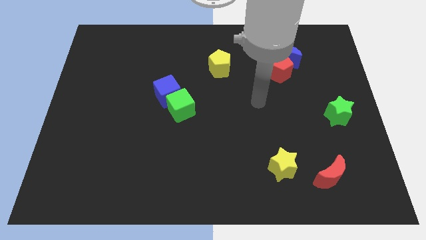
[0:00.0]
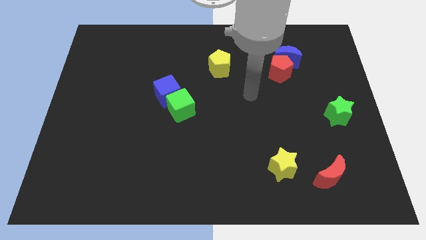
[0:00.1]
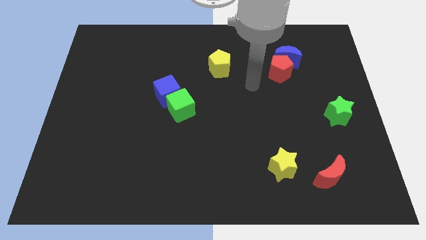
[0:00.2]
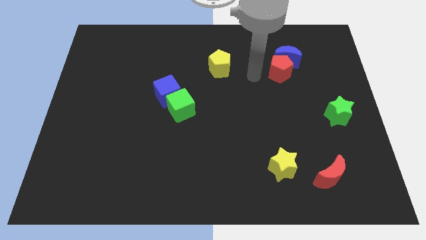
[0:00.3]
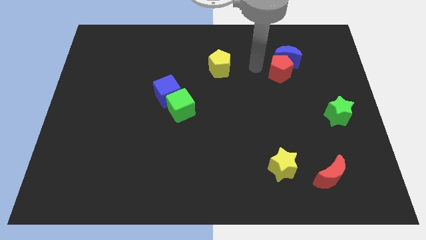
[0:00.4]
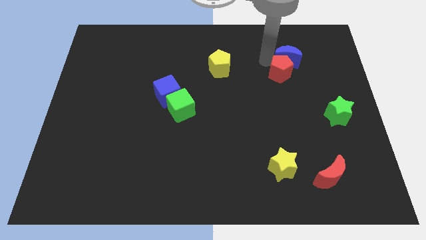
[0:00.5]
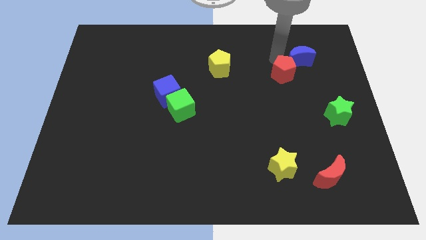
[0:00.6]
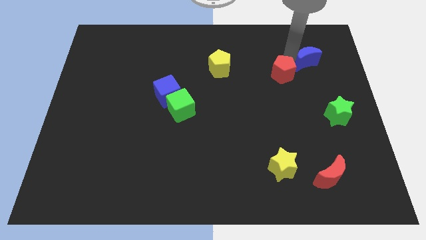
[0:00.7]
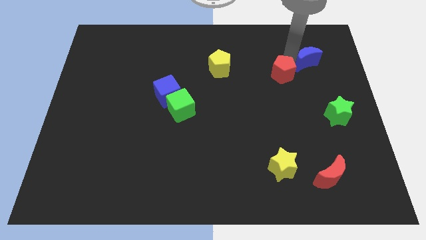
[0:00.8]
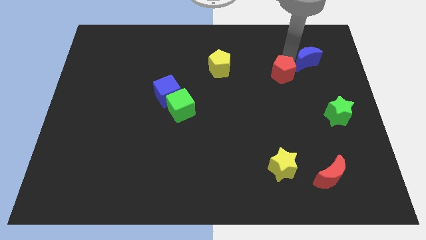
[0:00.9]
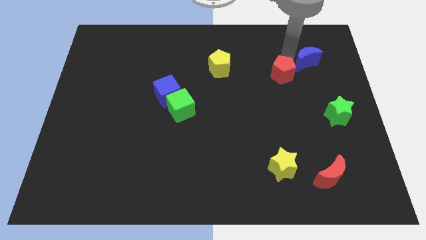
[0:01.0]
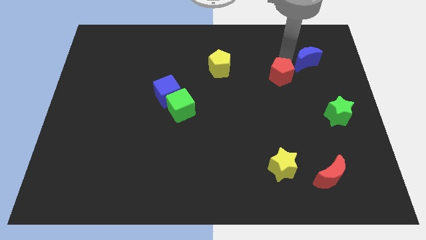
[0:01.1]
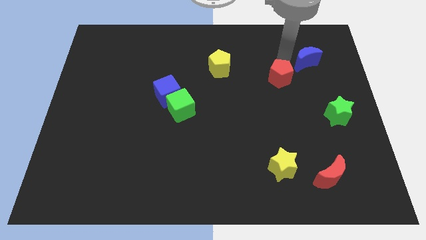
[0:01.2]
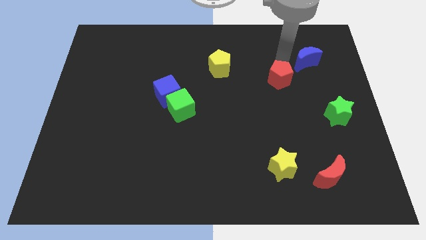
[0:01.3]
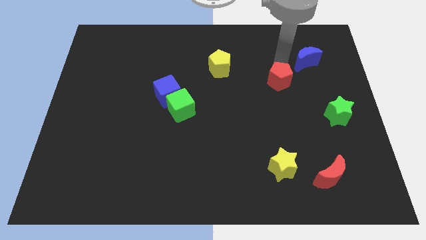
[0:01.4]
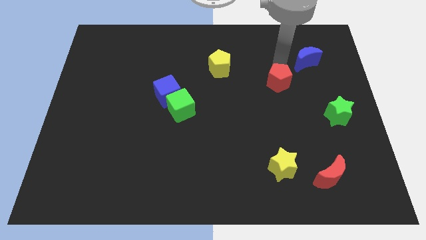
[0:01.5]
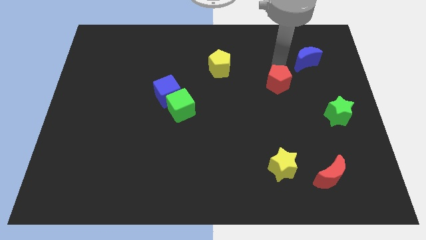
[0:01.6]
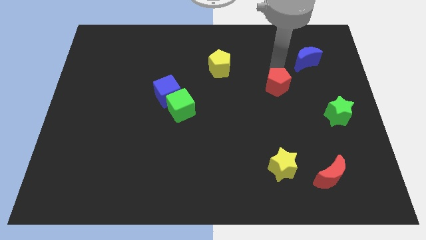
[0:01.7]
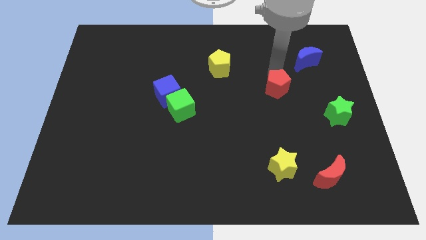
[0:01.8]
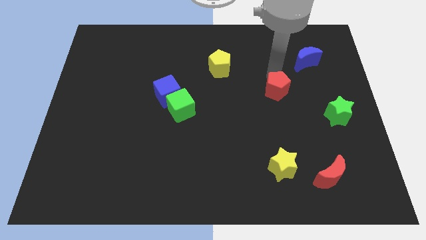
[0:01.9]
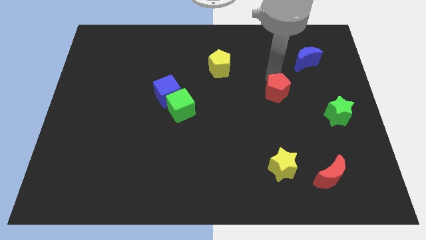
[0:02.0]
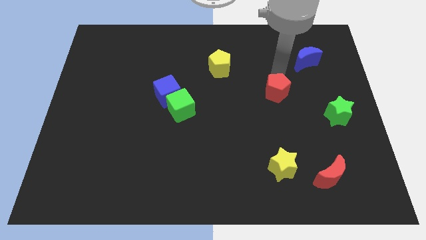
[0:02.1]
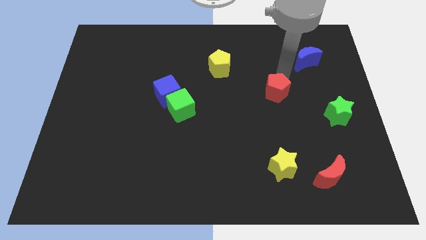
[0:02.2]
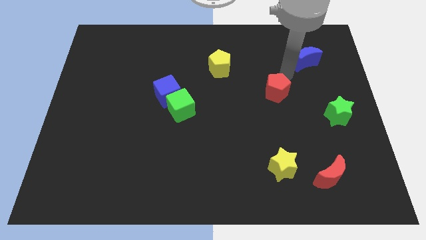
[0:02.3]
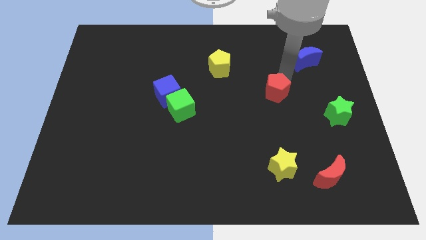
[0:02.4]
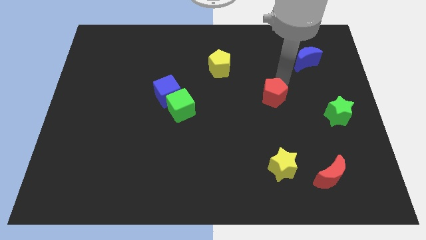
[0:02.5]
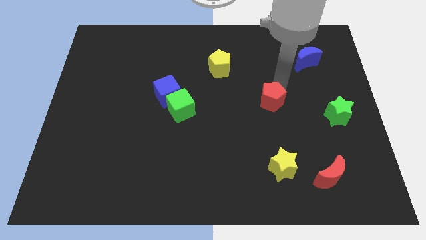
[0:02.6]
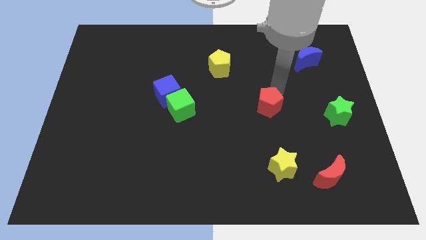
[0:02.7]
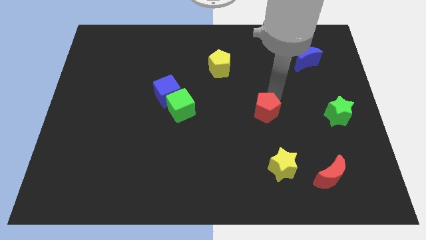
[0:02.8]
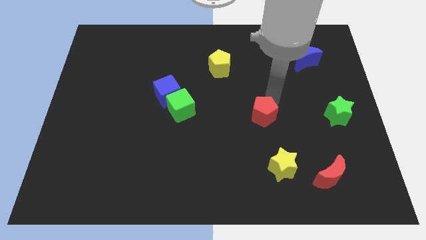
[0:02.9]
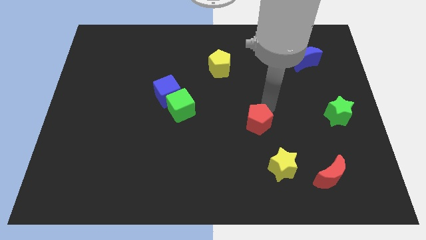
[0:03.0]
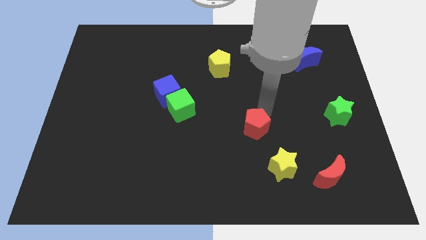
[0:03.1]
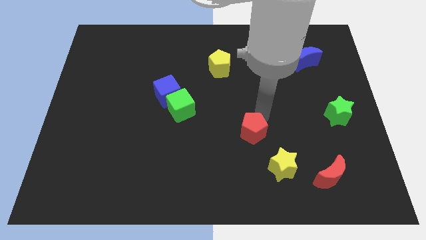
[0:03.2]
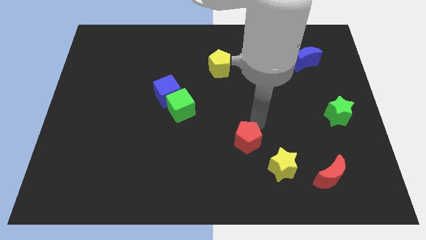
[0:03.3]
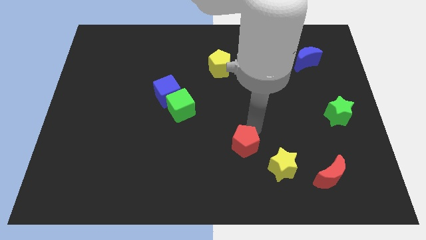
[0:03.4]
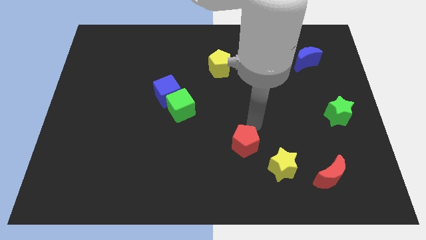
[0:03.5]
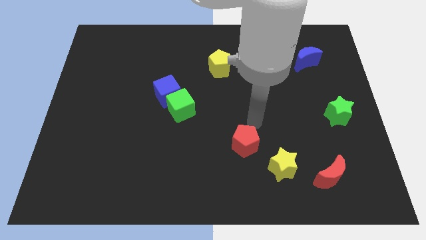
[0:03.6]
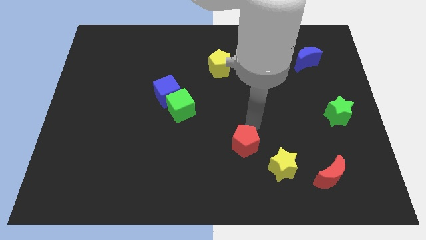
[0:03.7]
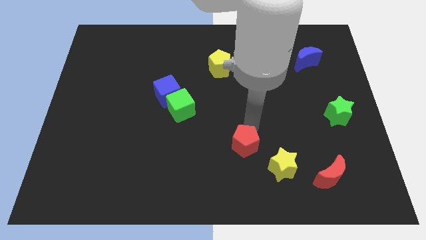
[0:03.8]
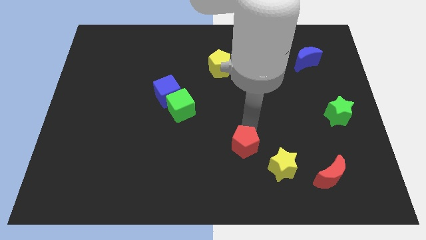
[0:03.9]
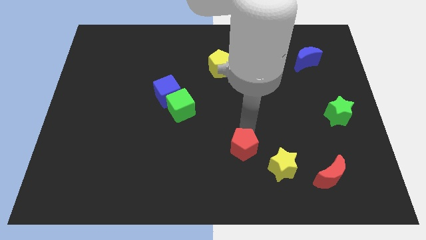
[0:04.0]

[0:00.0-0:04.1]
slide the red pentagon to the left side of the yellow star

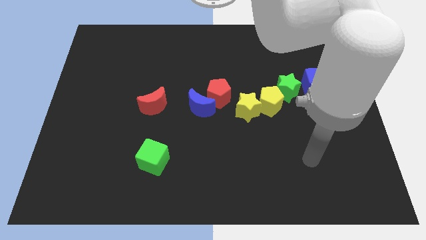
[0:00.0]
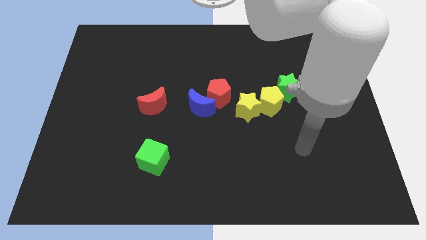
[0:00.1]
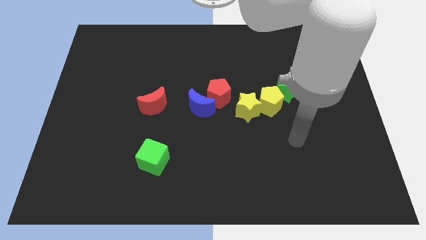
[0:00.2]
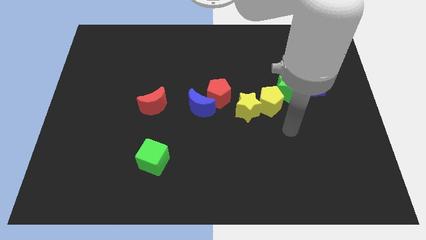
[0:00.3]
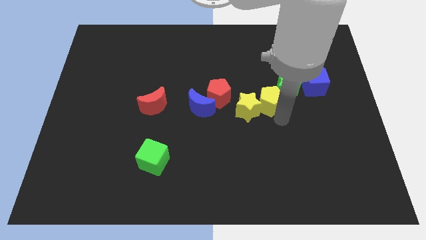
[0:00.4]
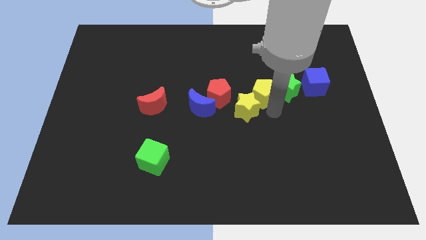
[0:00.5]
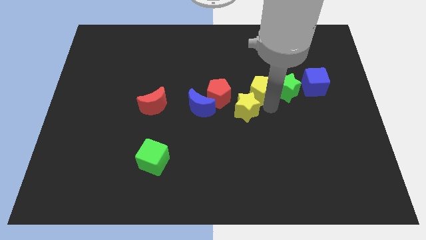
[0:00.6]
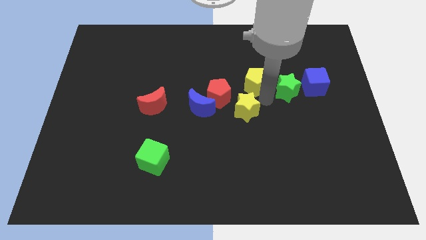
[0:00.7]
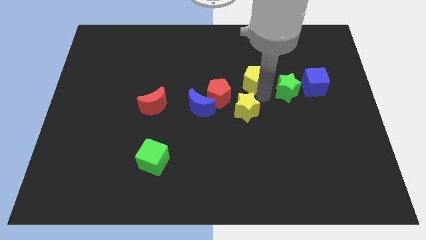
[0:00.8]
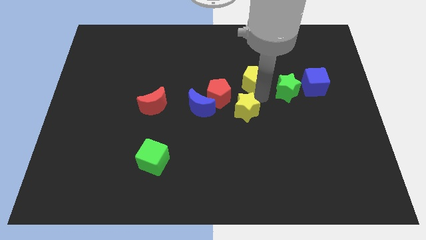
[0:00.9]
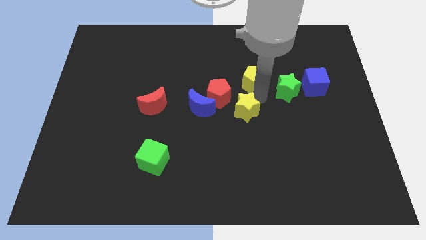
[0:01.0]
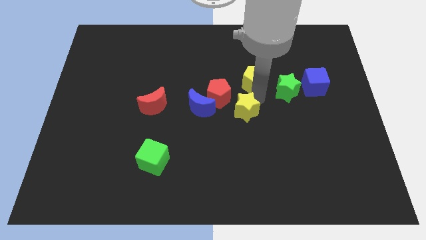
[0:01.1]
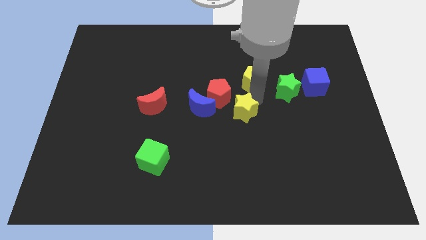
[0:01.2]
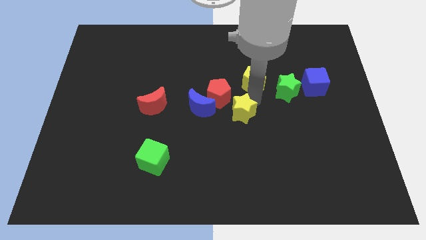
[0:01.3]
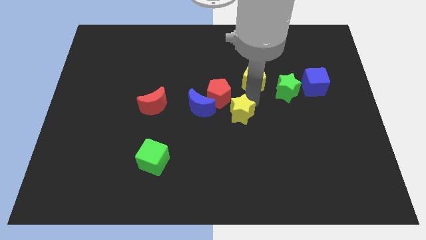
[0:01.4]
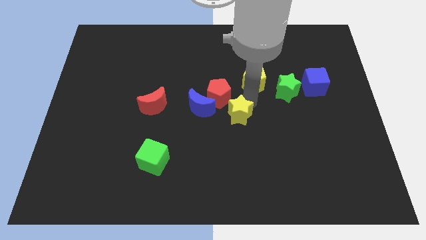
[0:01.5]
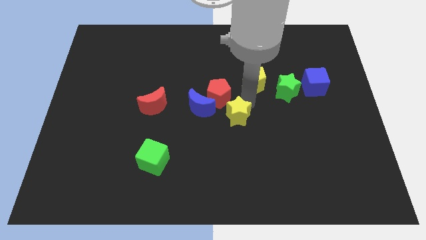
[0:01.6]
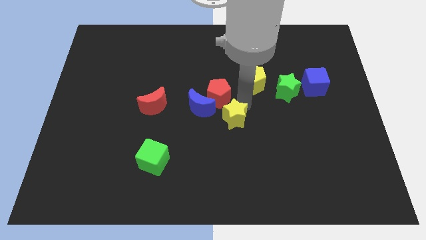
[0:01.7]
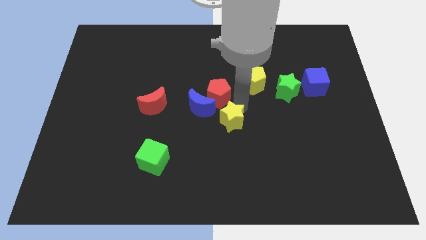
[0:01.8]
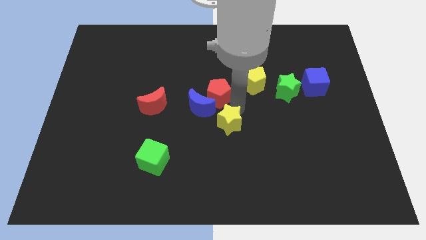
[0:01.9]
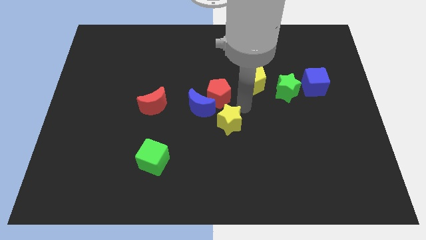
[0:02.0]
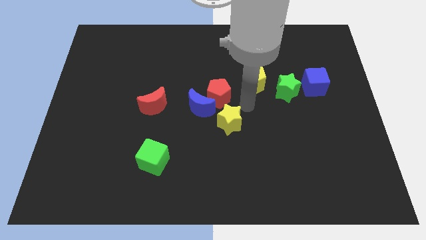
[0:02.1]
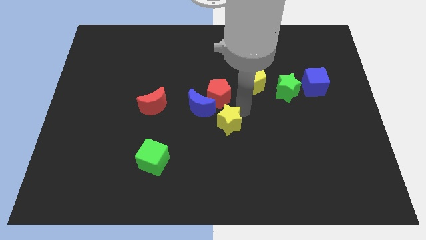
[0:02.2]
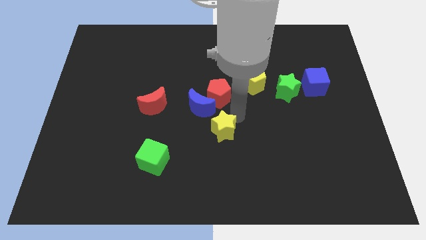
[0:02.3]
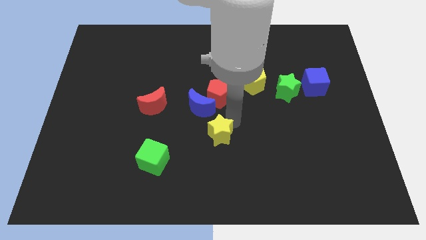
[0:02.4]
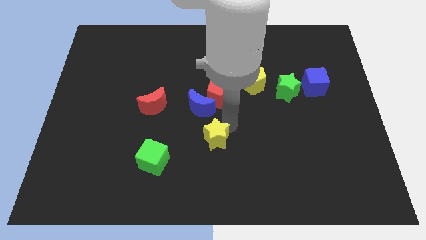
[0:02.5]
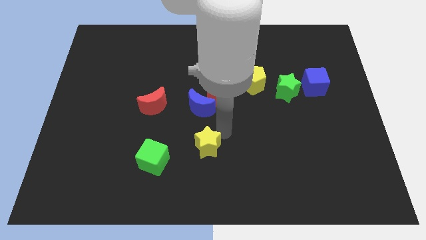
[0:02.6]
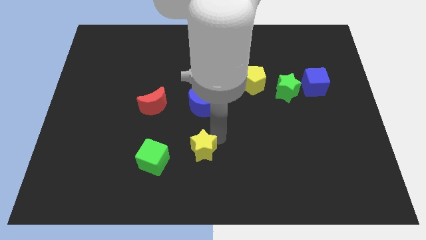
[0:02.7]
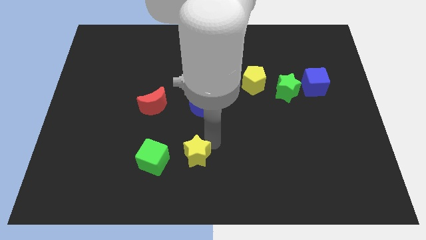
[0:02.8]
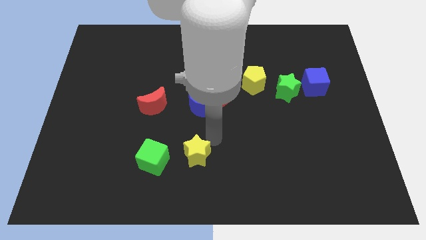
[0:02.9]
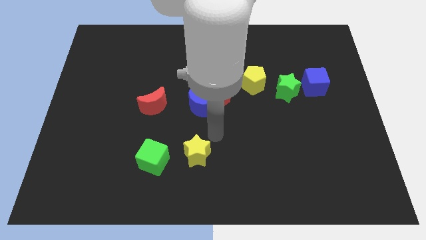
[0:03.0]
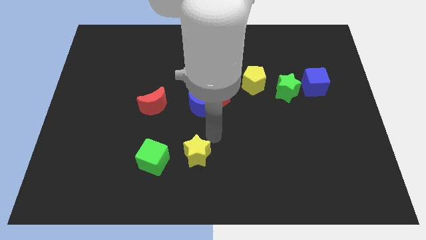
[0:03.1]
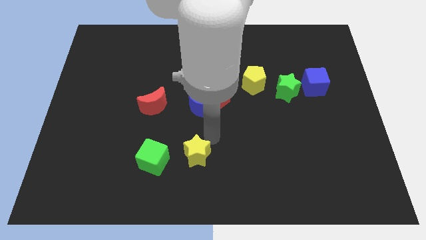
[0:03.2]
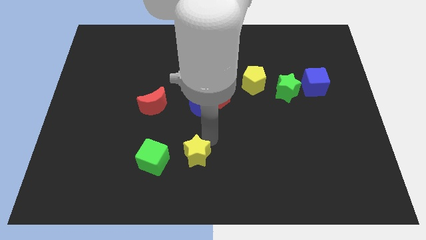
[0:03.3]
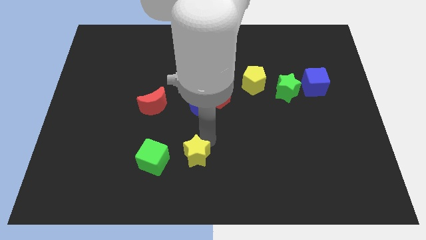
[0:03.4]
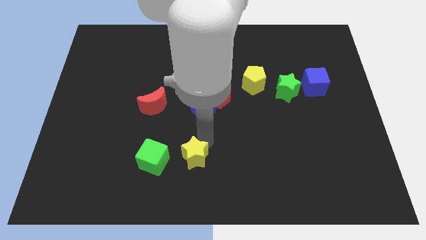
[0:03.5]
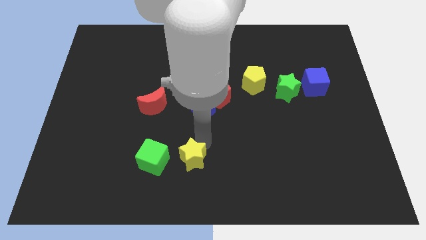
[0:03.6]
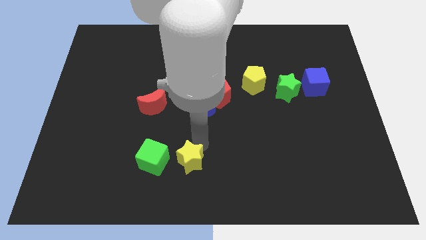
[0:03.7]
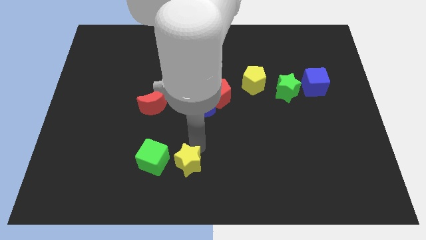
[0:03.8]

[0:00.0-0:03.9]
move the yellow star diagonally down and to the right of the green cube
